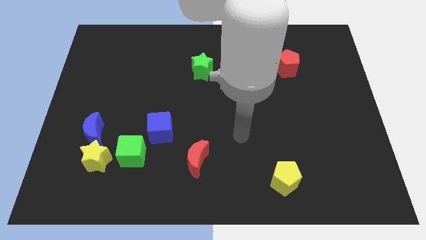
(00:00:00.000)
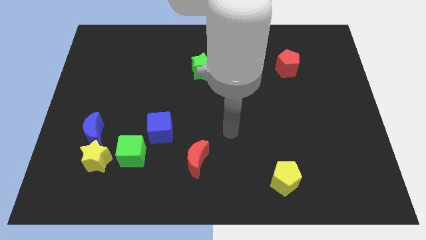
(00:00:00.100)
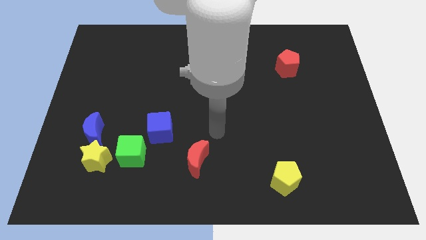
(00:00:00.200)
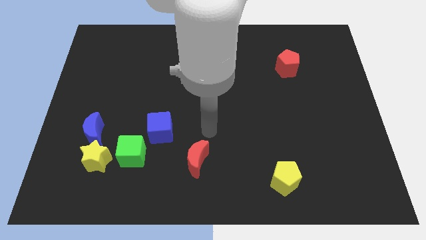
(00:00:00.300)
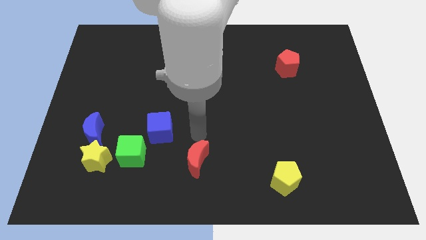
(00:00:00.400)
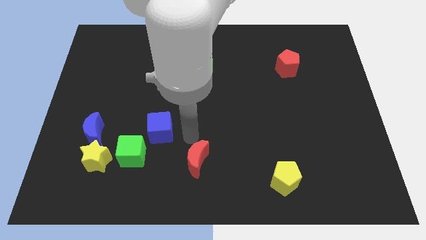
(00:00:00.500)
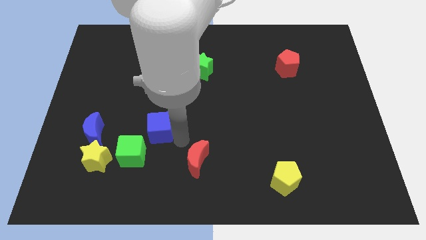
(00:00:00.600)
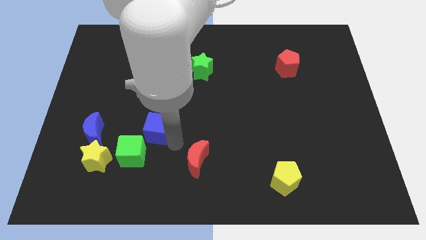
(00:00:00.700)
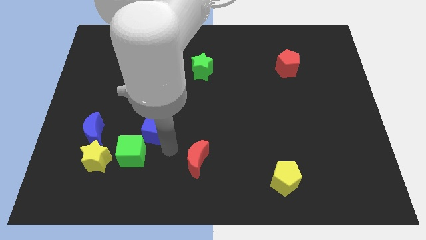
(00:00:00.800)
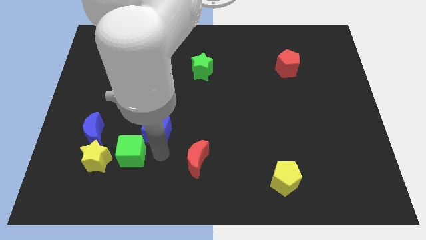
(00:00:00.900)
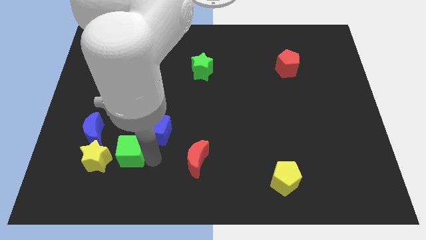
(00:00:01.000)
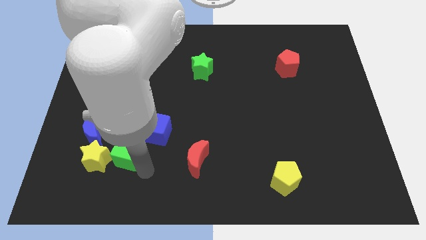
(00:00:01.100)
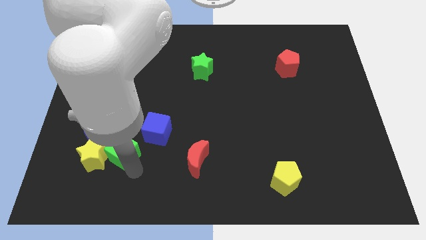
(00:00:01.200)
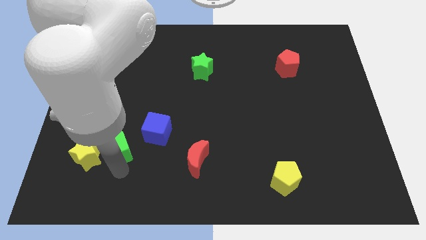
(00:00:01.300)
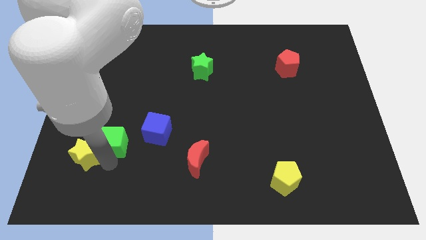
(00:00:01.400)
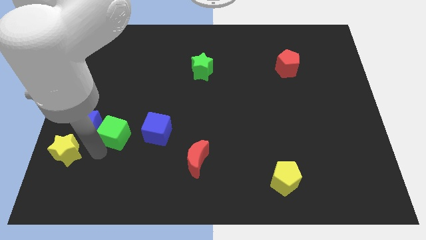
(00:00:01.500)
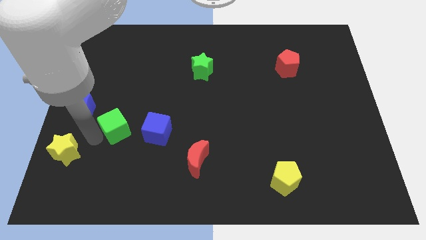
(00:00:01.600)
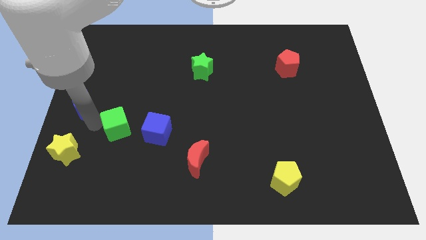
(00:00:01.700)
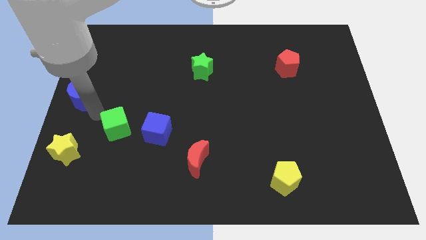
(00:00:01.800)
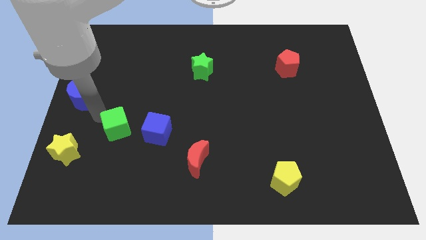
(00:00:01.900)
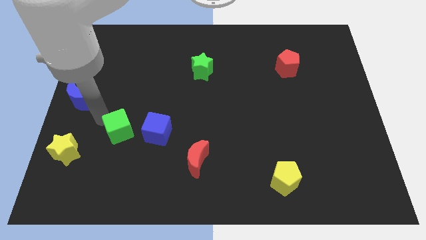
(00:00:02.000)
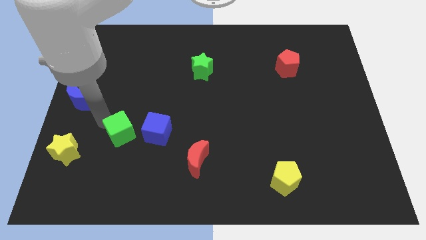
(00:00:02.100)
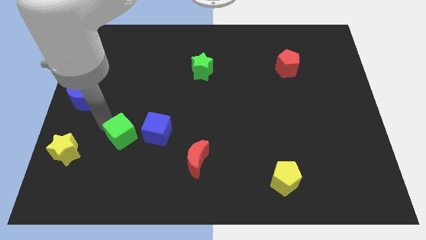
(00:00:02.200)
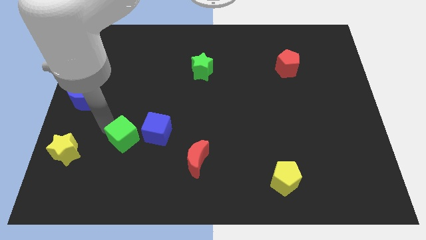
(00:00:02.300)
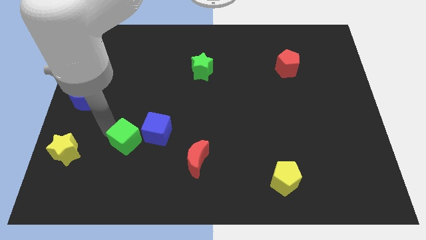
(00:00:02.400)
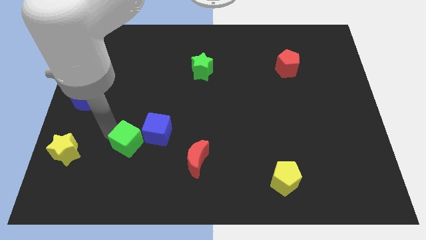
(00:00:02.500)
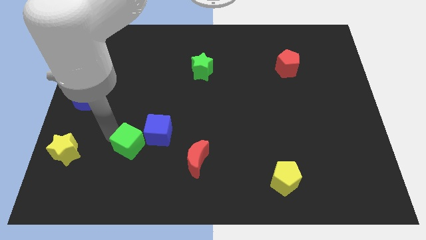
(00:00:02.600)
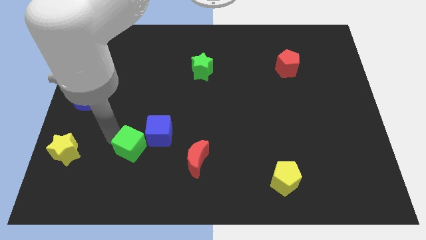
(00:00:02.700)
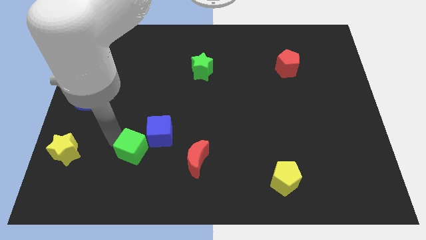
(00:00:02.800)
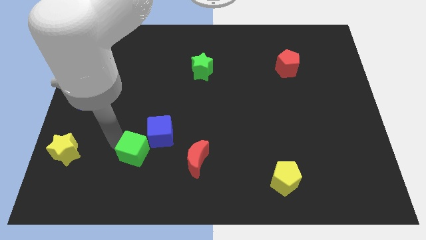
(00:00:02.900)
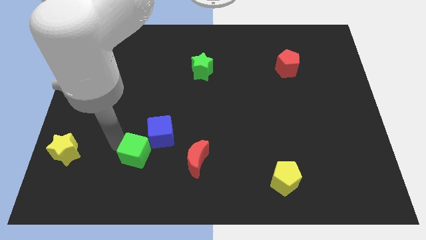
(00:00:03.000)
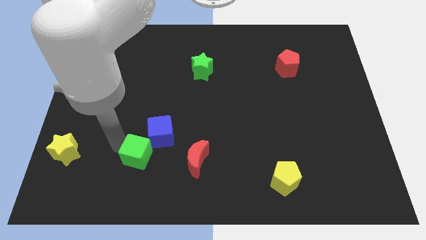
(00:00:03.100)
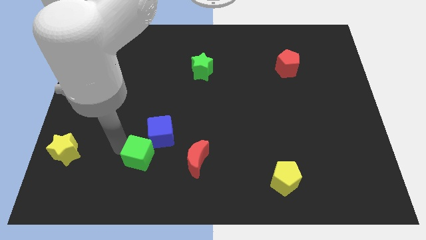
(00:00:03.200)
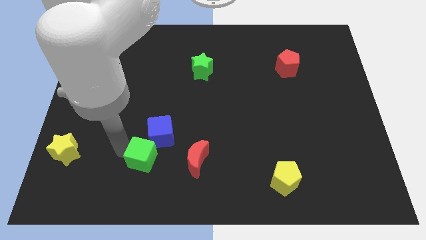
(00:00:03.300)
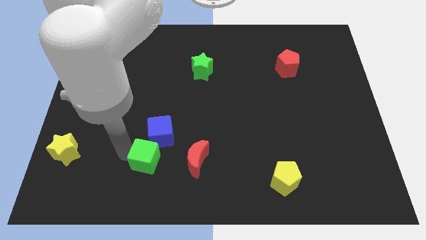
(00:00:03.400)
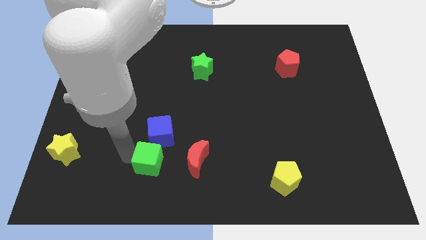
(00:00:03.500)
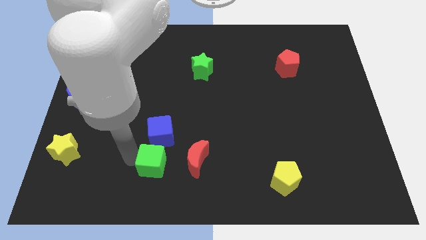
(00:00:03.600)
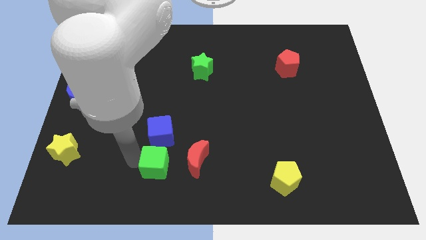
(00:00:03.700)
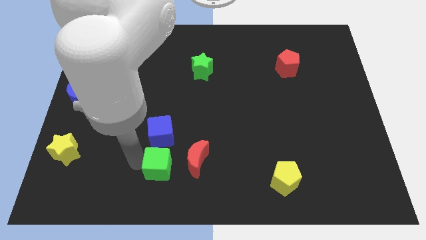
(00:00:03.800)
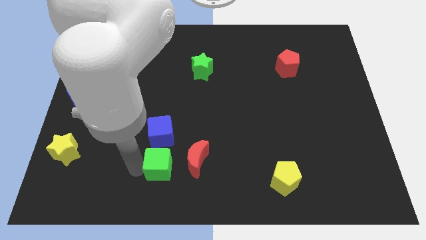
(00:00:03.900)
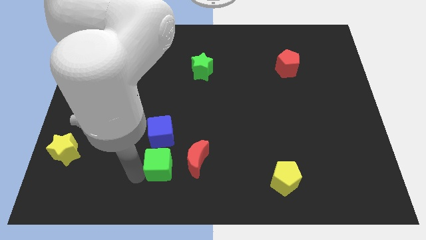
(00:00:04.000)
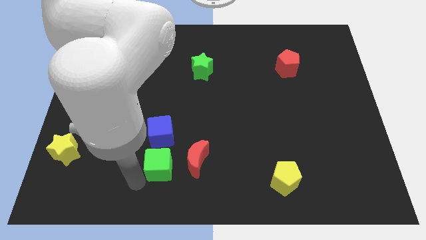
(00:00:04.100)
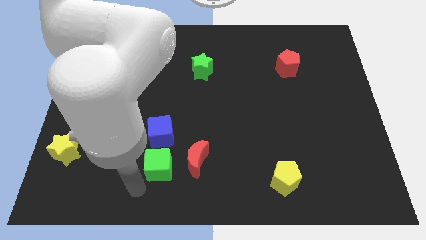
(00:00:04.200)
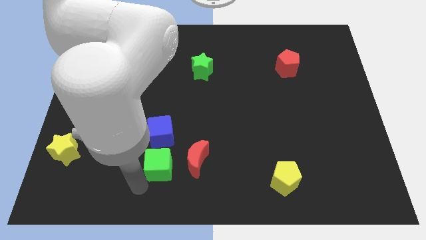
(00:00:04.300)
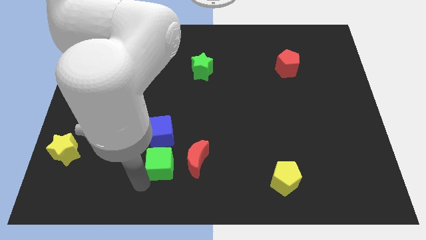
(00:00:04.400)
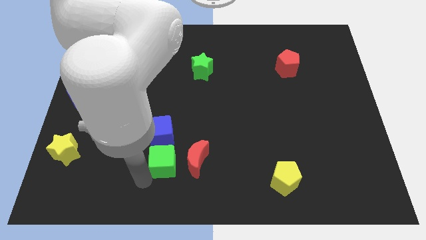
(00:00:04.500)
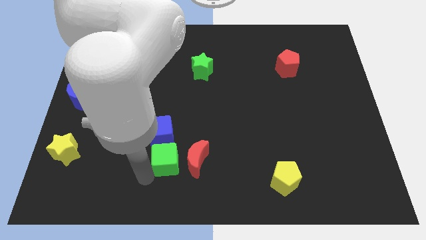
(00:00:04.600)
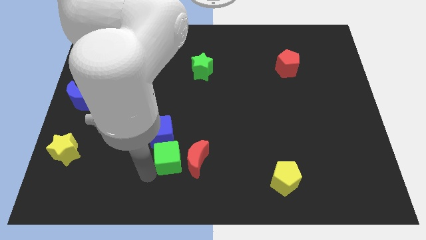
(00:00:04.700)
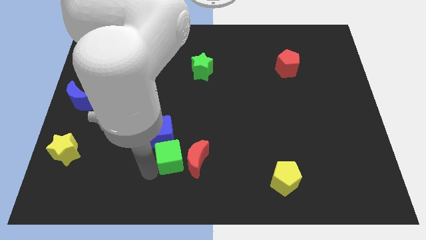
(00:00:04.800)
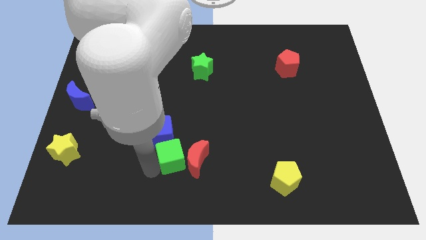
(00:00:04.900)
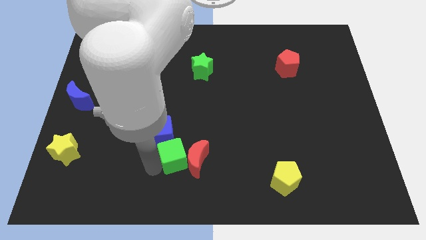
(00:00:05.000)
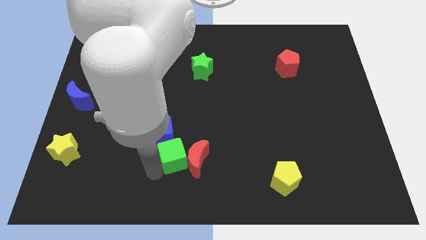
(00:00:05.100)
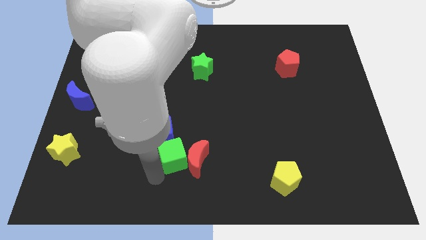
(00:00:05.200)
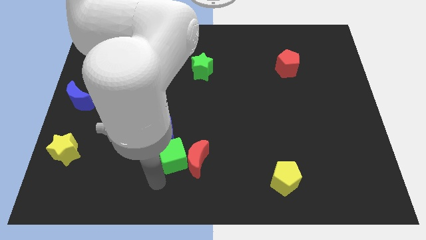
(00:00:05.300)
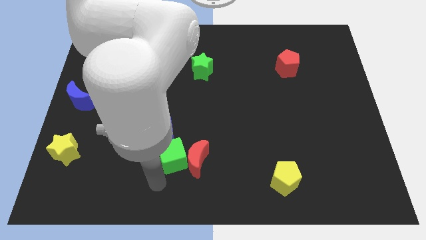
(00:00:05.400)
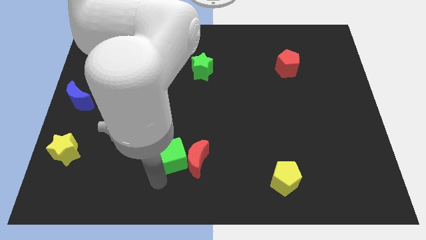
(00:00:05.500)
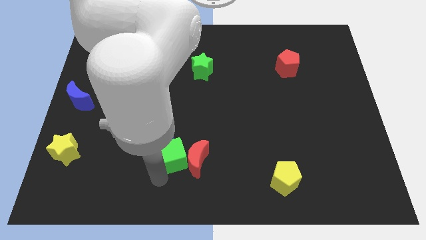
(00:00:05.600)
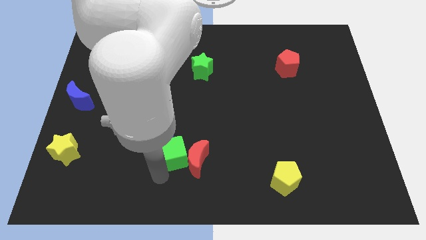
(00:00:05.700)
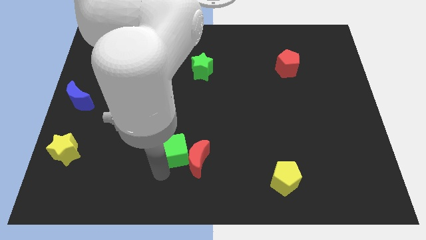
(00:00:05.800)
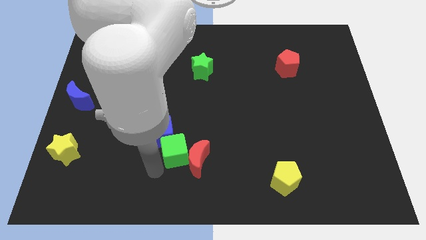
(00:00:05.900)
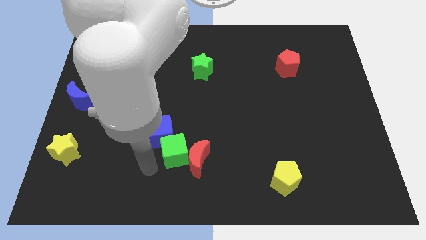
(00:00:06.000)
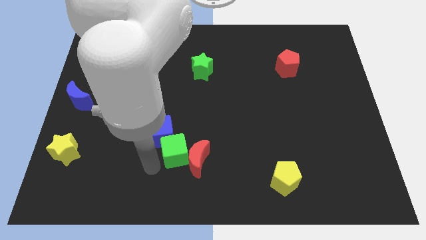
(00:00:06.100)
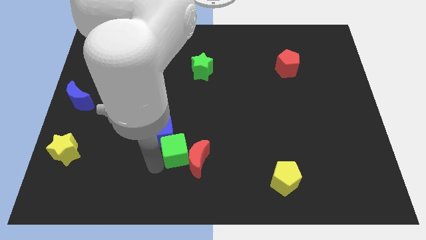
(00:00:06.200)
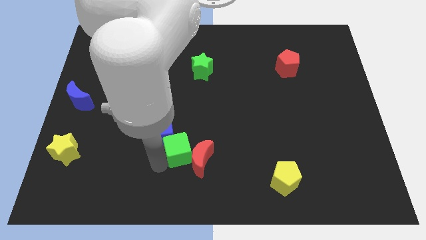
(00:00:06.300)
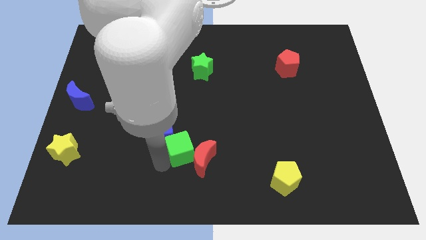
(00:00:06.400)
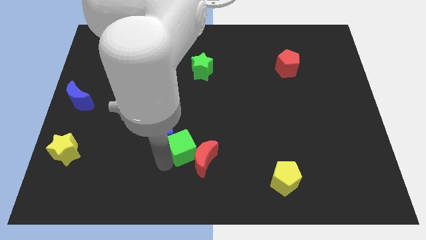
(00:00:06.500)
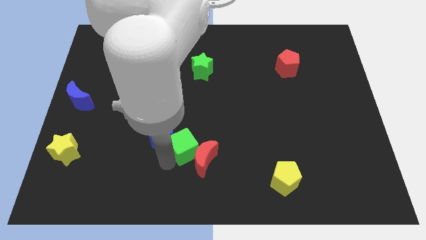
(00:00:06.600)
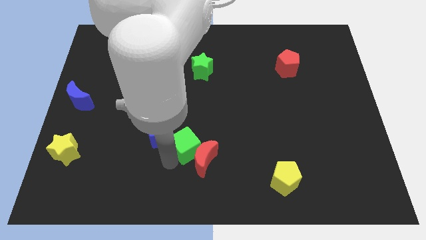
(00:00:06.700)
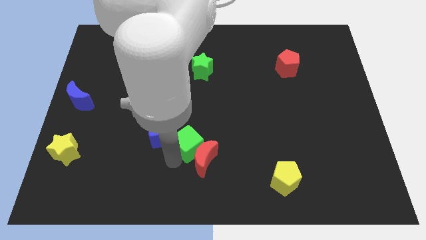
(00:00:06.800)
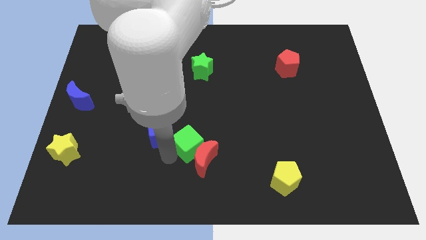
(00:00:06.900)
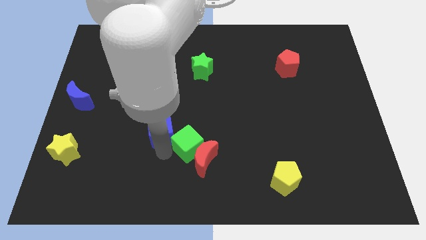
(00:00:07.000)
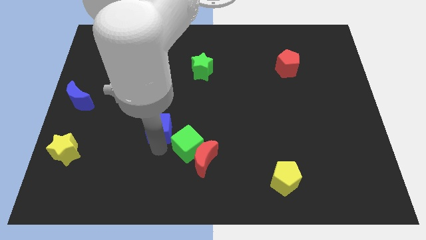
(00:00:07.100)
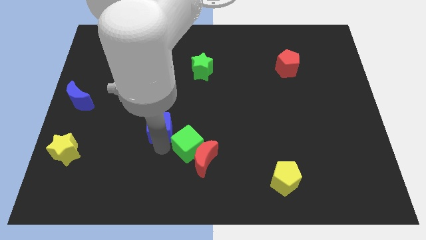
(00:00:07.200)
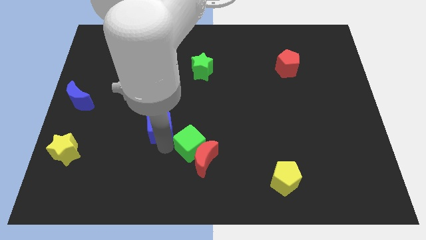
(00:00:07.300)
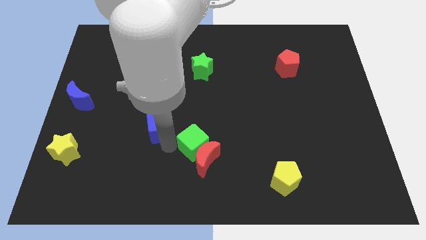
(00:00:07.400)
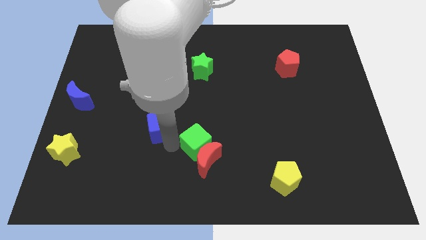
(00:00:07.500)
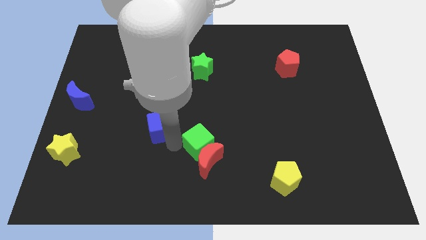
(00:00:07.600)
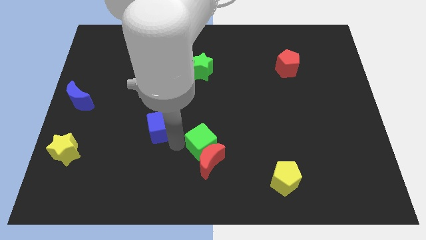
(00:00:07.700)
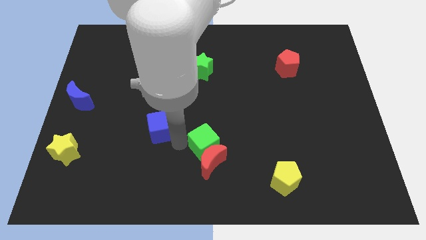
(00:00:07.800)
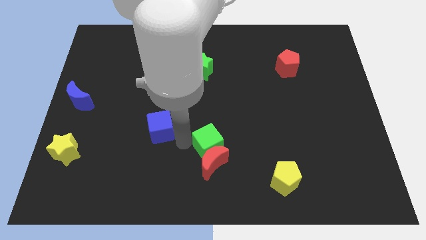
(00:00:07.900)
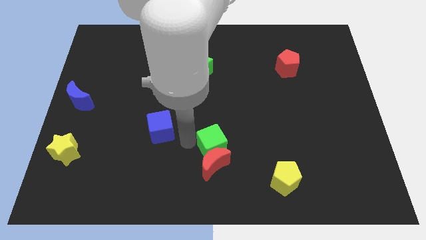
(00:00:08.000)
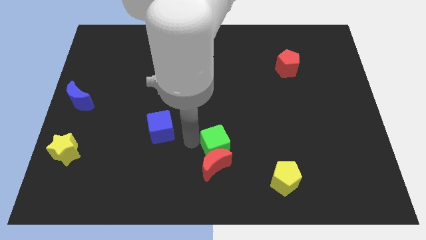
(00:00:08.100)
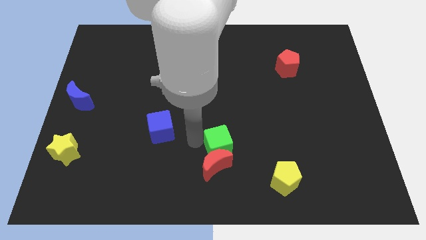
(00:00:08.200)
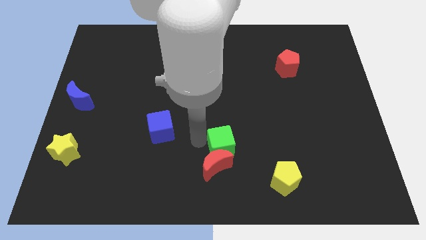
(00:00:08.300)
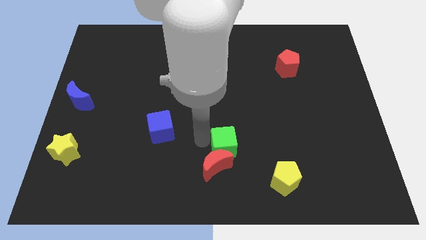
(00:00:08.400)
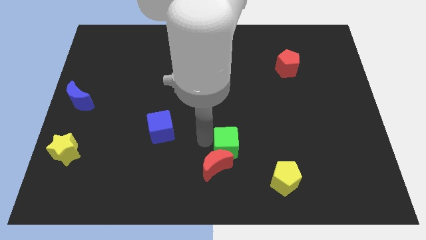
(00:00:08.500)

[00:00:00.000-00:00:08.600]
slide the green cube right
